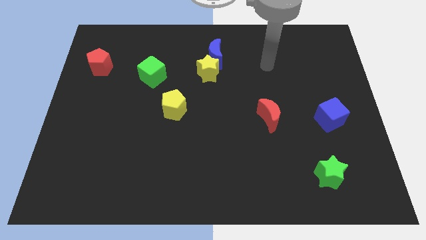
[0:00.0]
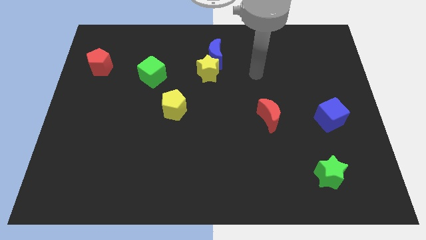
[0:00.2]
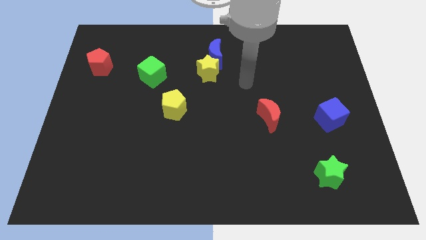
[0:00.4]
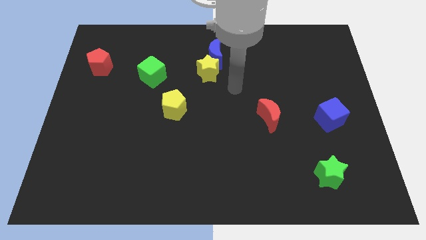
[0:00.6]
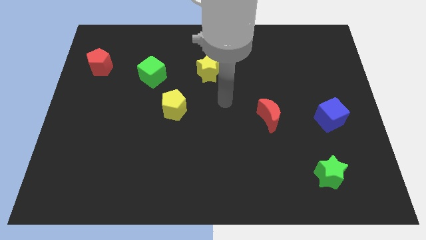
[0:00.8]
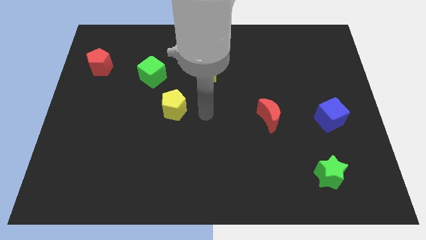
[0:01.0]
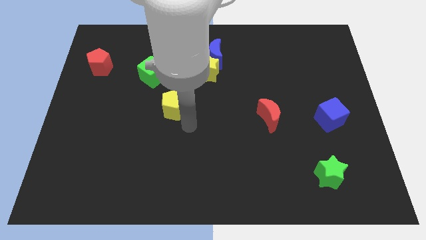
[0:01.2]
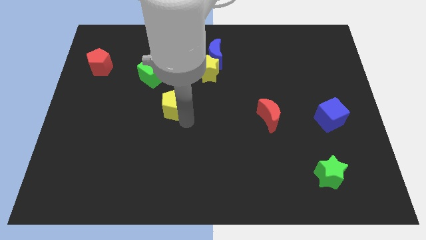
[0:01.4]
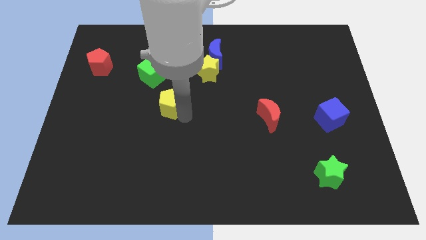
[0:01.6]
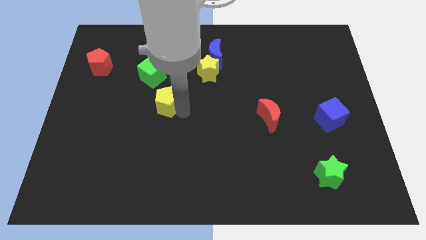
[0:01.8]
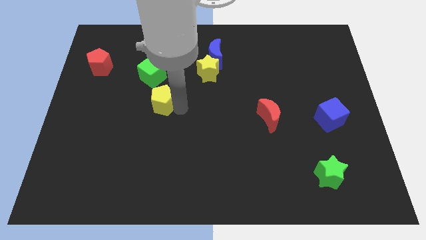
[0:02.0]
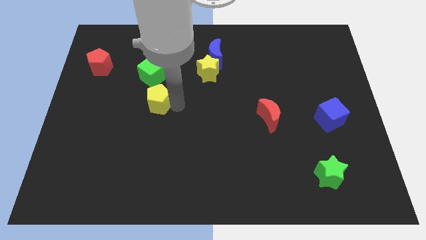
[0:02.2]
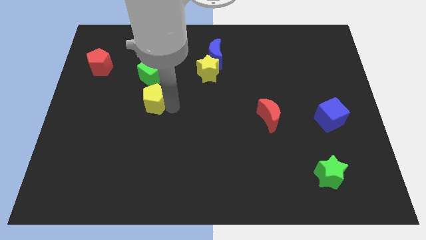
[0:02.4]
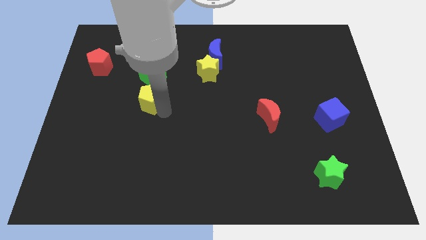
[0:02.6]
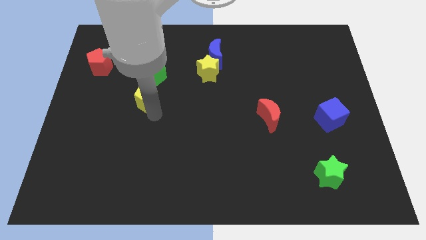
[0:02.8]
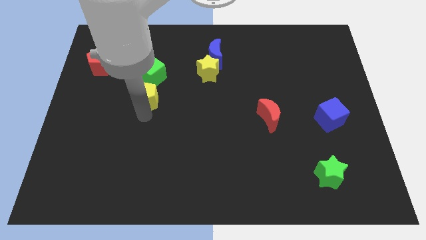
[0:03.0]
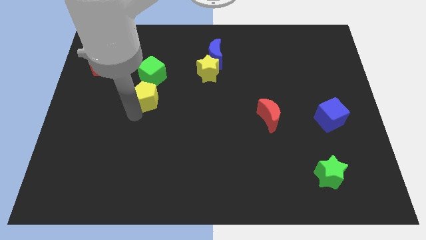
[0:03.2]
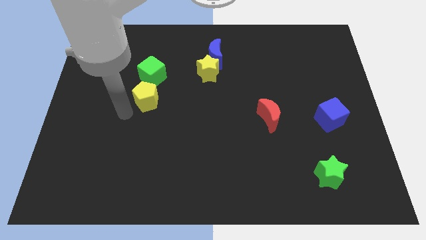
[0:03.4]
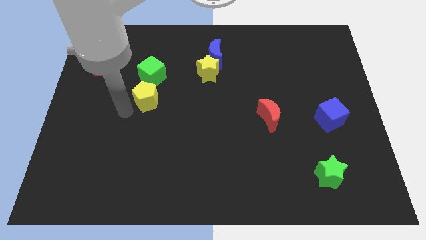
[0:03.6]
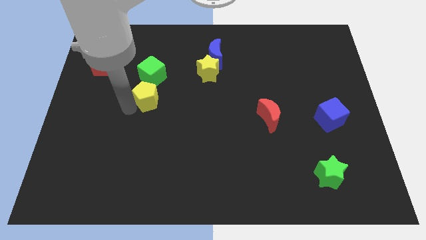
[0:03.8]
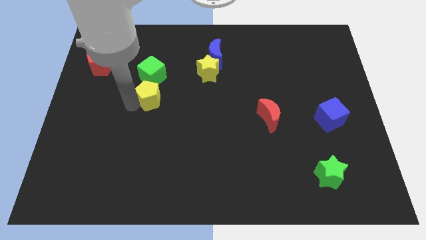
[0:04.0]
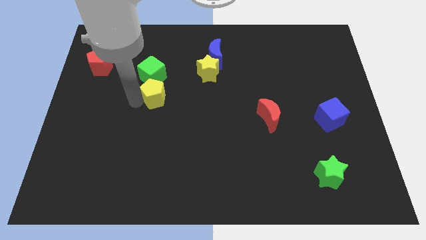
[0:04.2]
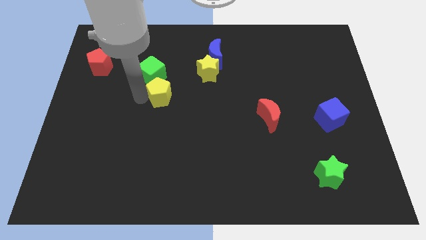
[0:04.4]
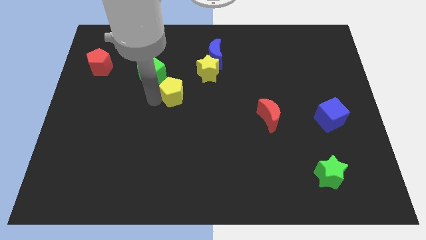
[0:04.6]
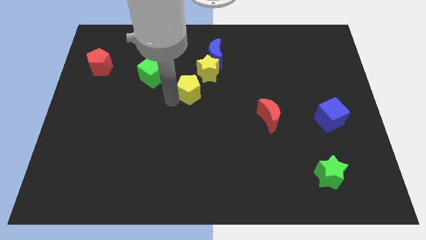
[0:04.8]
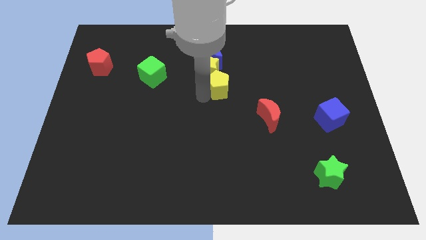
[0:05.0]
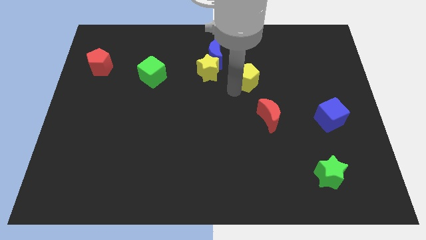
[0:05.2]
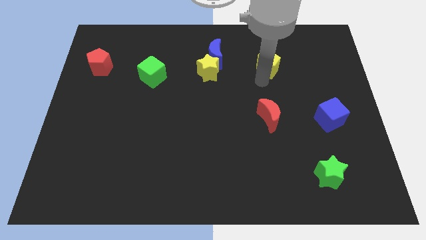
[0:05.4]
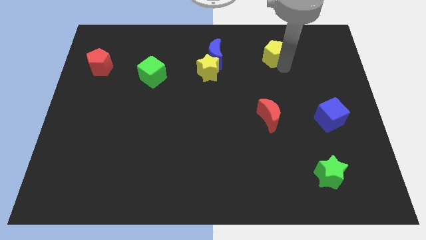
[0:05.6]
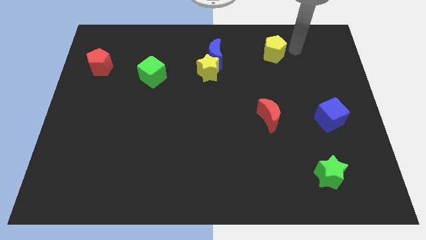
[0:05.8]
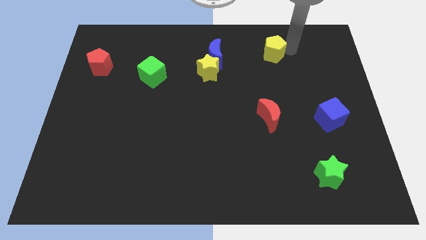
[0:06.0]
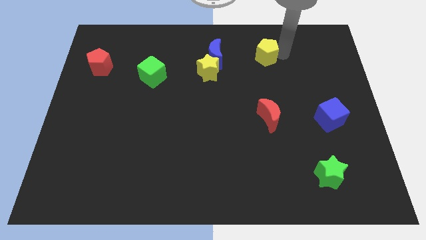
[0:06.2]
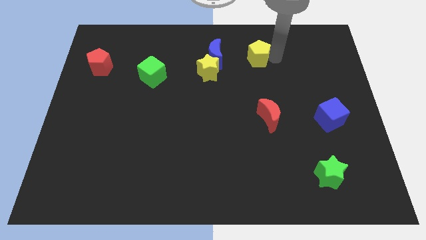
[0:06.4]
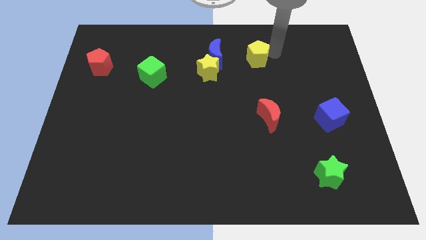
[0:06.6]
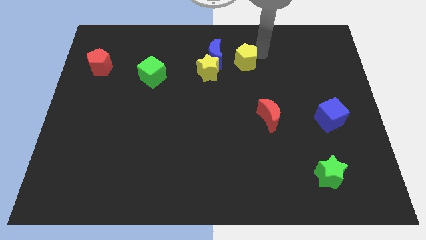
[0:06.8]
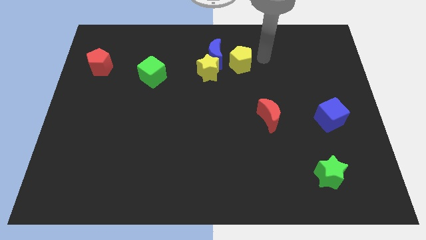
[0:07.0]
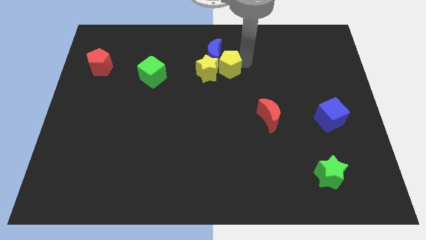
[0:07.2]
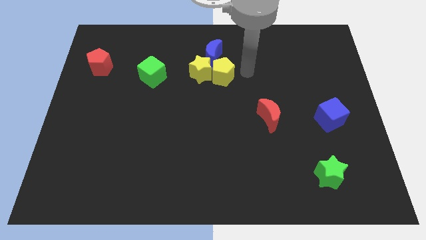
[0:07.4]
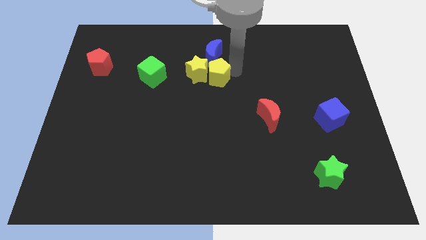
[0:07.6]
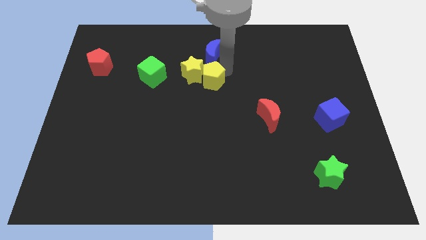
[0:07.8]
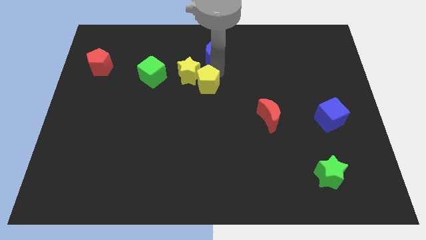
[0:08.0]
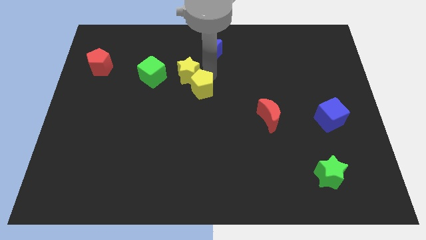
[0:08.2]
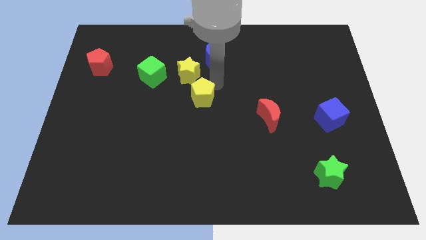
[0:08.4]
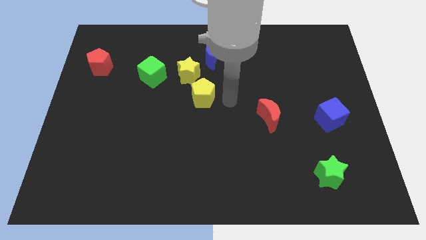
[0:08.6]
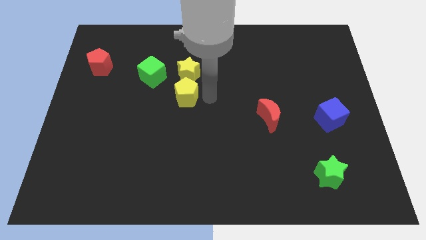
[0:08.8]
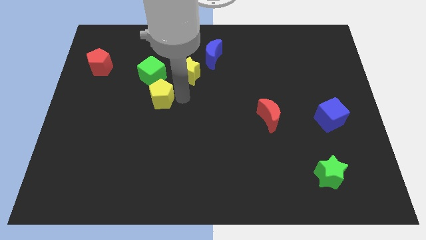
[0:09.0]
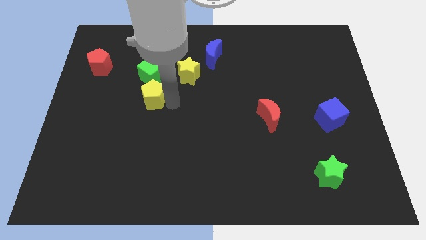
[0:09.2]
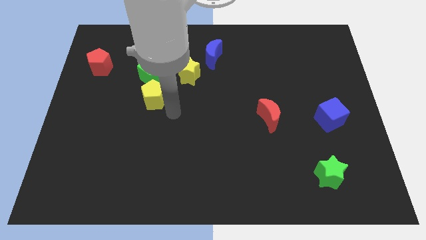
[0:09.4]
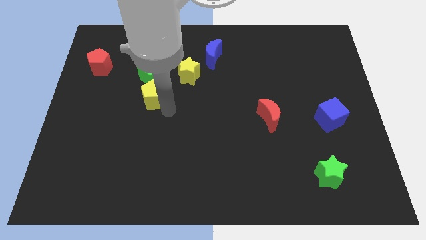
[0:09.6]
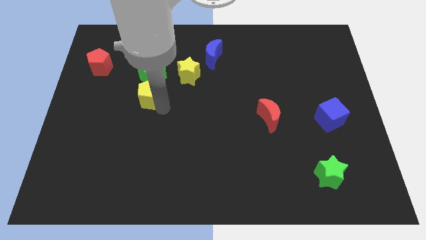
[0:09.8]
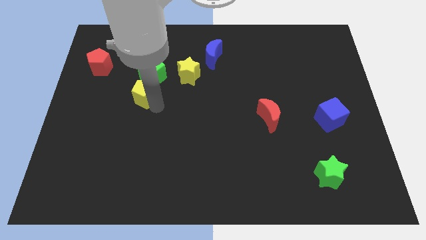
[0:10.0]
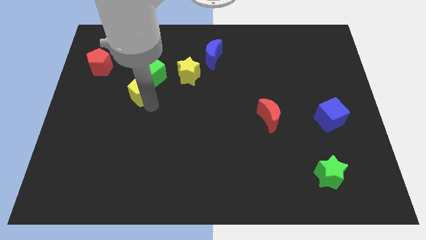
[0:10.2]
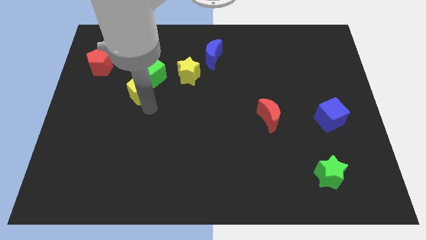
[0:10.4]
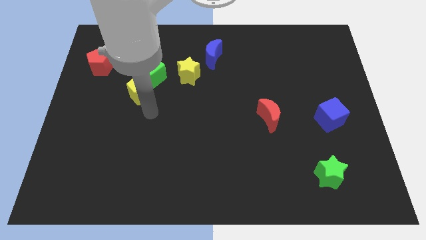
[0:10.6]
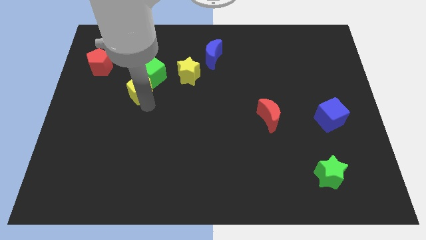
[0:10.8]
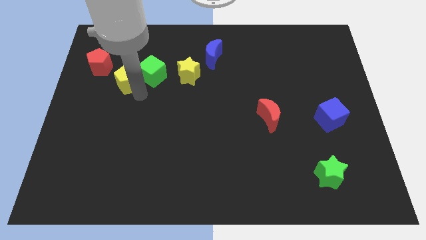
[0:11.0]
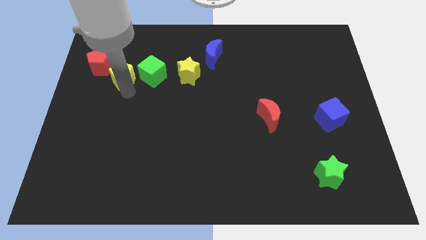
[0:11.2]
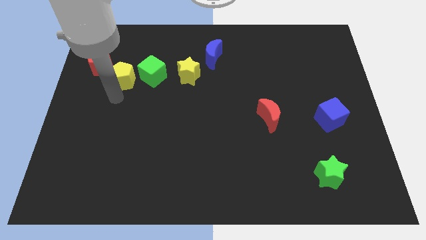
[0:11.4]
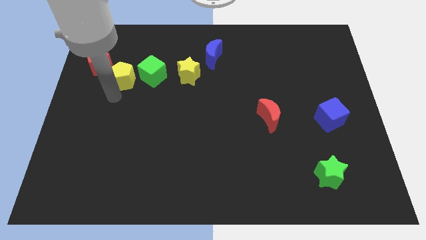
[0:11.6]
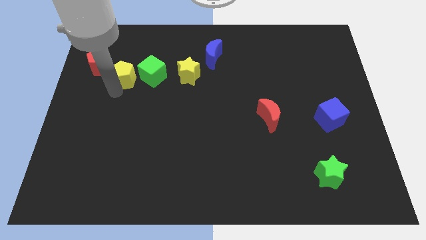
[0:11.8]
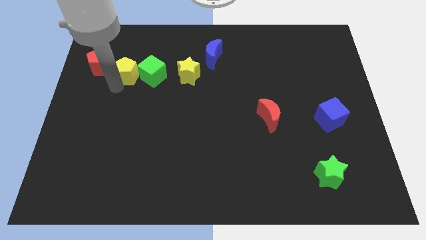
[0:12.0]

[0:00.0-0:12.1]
push the yellow pentagon to the top left of the green cube

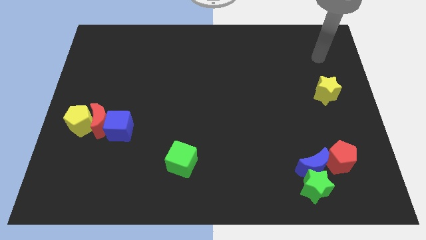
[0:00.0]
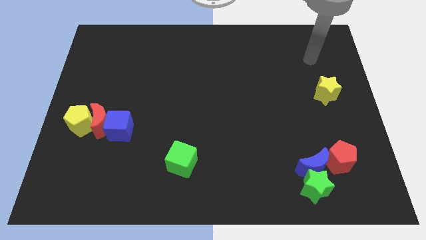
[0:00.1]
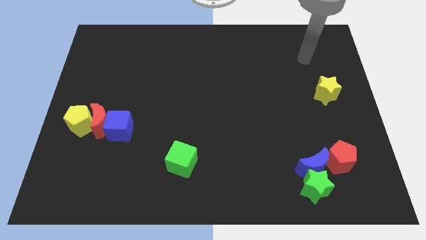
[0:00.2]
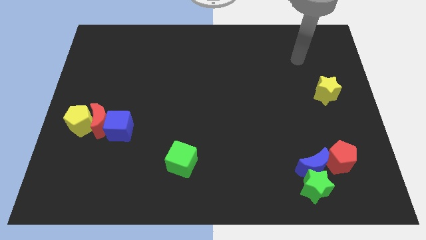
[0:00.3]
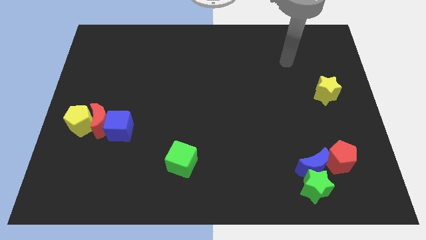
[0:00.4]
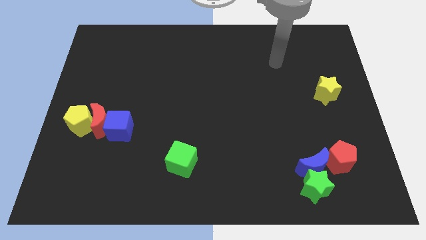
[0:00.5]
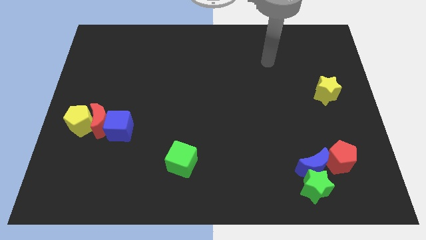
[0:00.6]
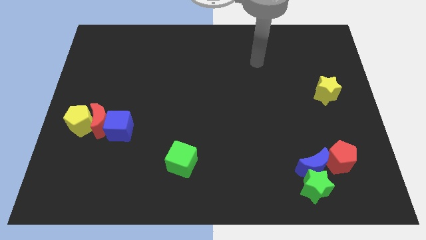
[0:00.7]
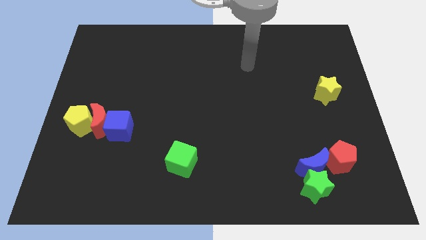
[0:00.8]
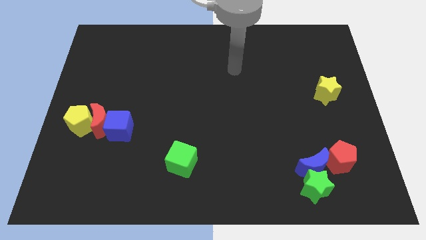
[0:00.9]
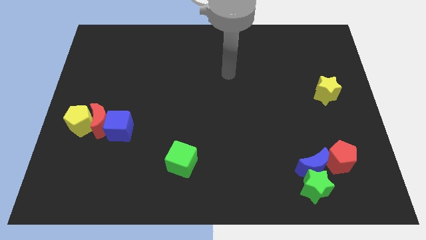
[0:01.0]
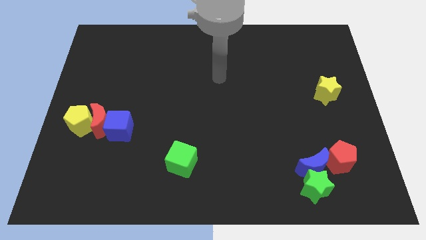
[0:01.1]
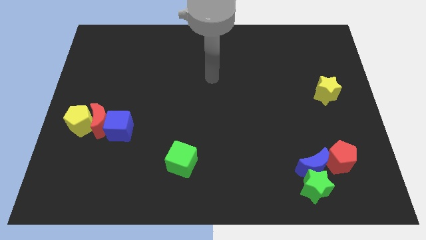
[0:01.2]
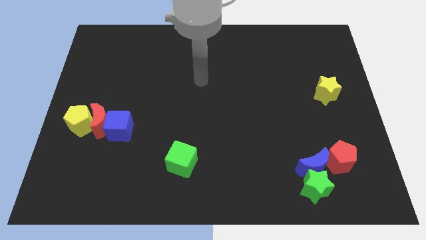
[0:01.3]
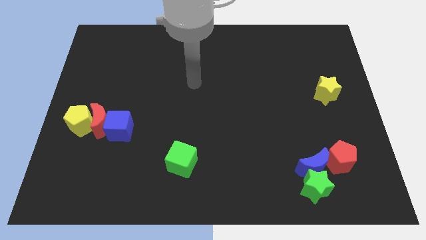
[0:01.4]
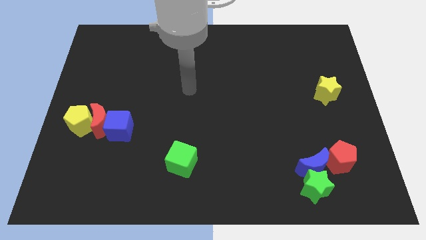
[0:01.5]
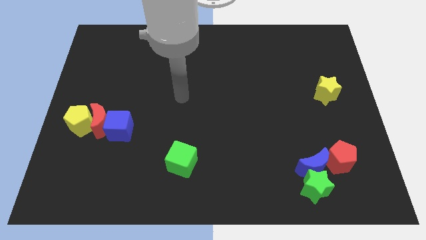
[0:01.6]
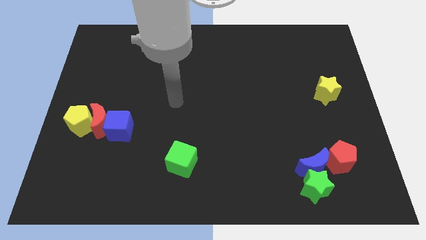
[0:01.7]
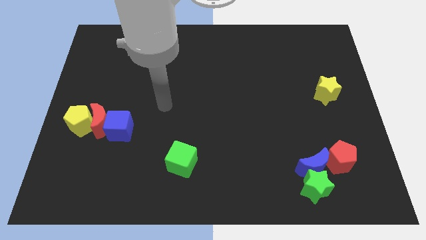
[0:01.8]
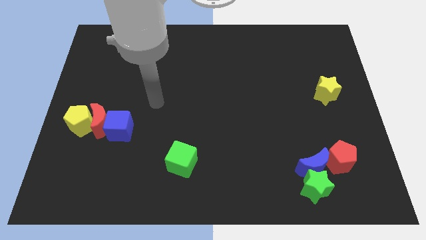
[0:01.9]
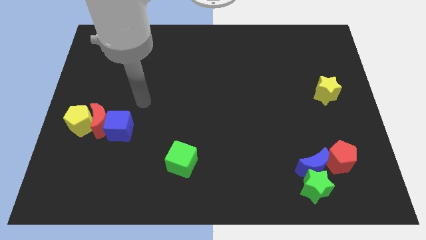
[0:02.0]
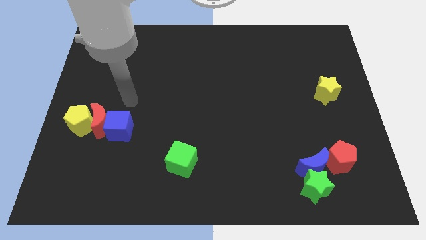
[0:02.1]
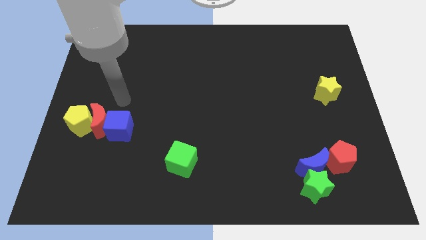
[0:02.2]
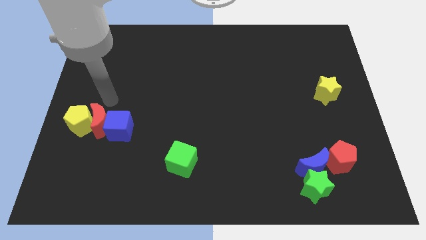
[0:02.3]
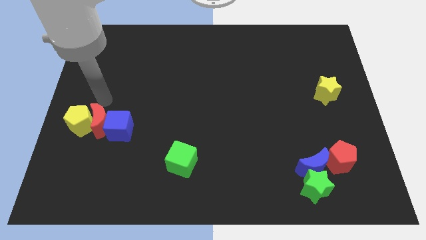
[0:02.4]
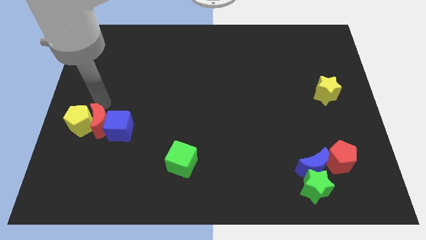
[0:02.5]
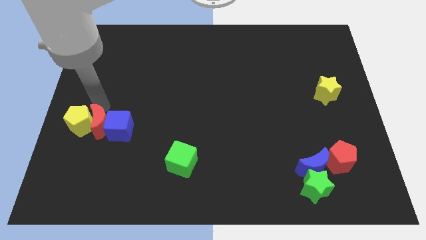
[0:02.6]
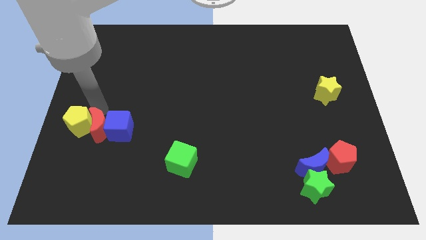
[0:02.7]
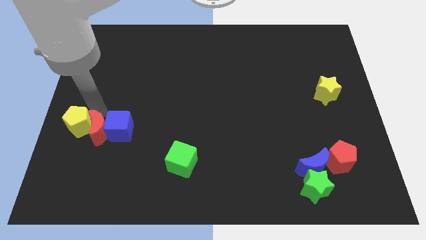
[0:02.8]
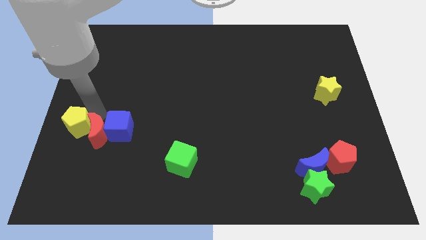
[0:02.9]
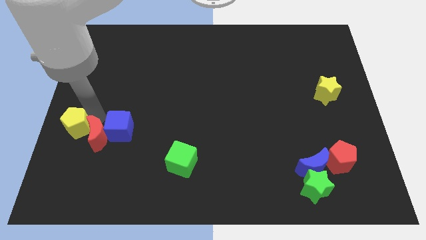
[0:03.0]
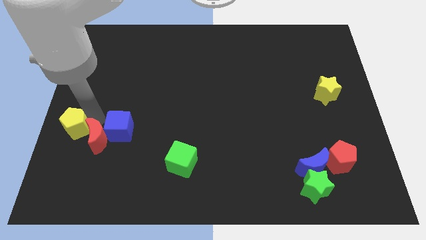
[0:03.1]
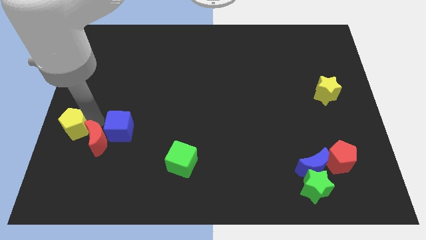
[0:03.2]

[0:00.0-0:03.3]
push the red moon to the bottom of the blue cube
